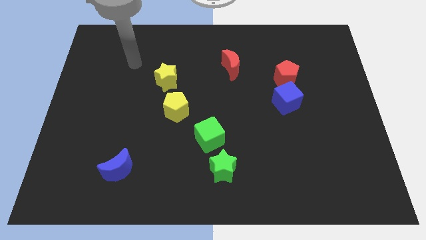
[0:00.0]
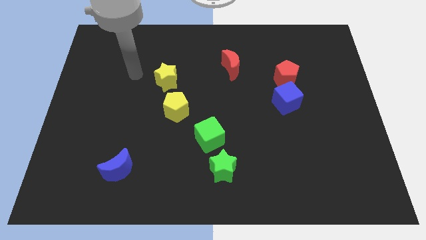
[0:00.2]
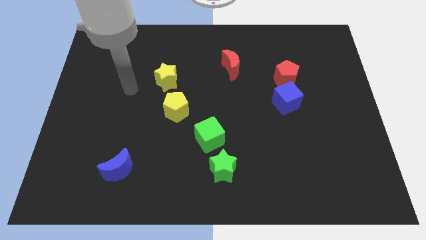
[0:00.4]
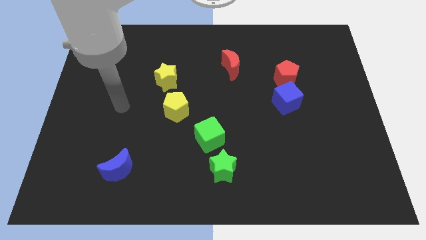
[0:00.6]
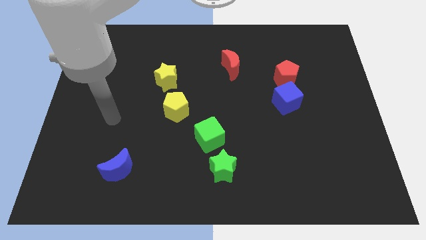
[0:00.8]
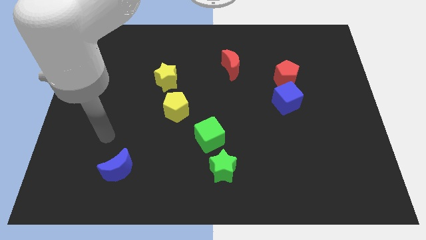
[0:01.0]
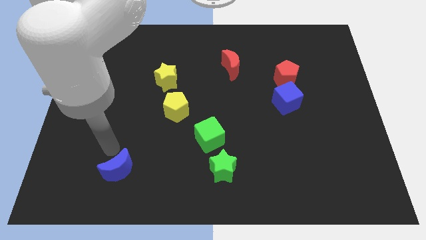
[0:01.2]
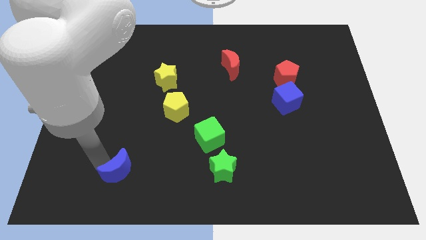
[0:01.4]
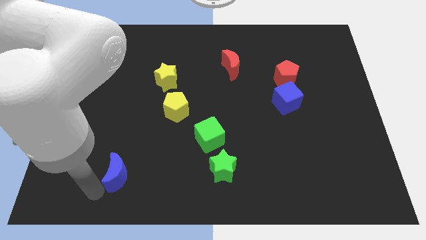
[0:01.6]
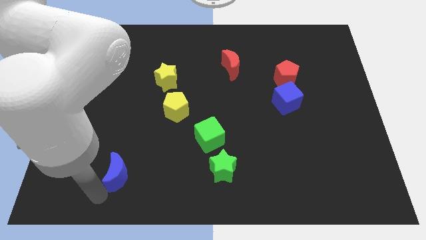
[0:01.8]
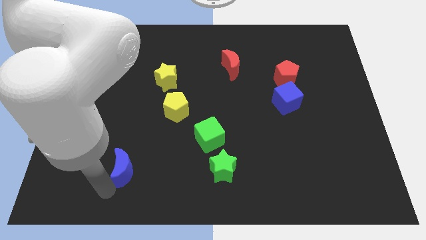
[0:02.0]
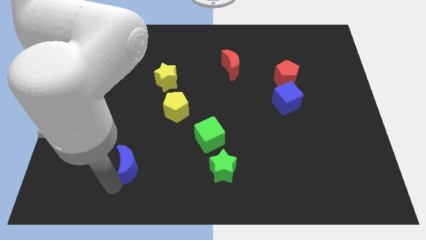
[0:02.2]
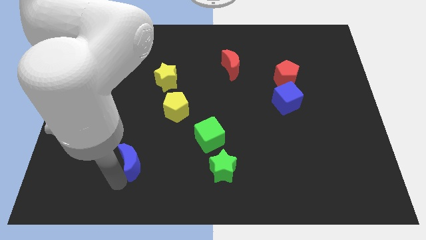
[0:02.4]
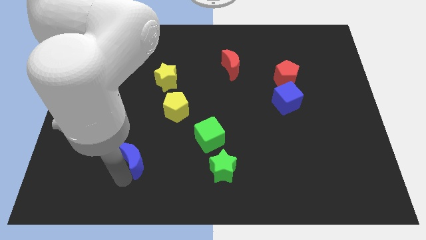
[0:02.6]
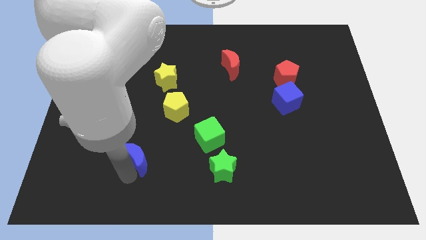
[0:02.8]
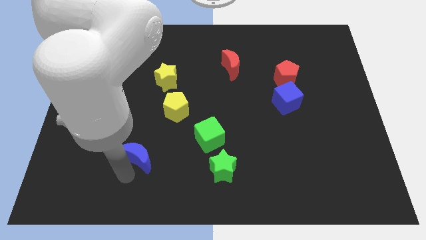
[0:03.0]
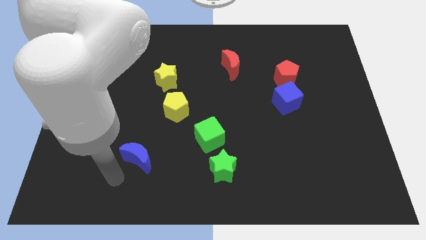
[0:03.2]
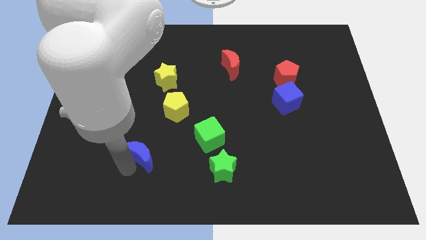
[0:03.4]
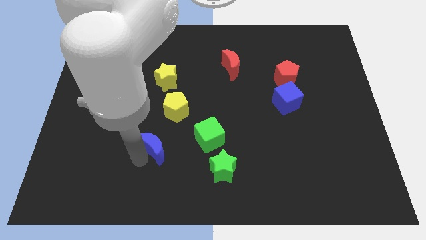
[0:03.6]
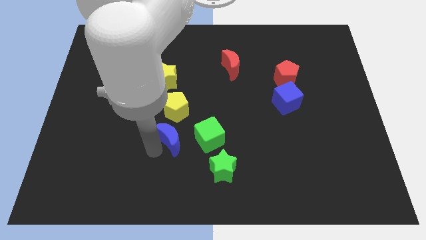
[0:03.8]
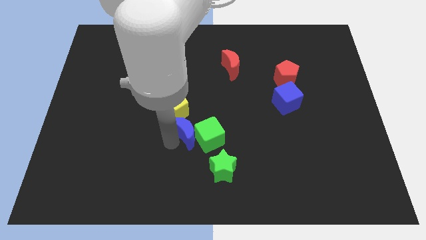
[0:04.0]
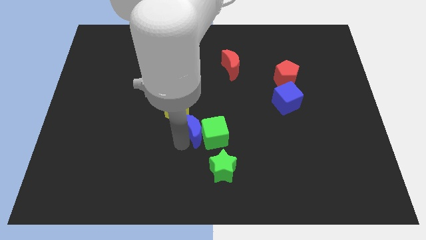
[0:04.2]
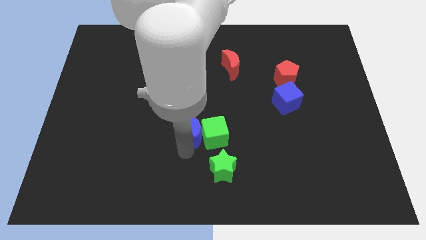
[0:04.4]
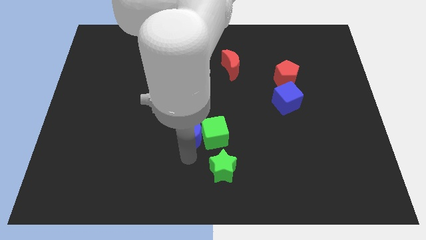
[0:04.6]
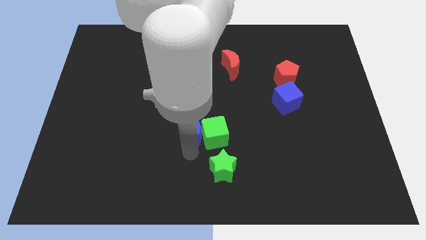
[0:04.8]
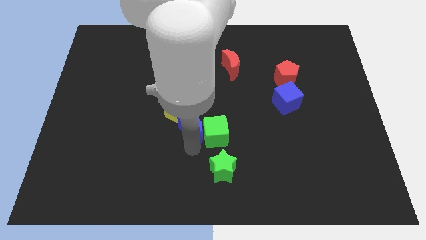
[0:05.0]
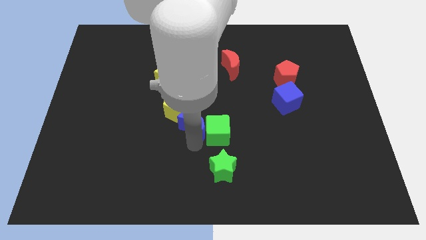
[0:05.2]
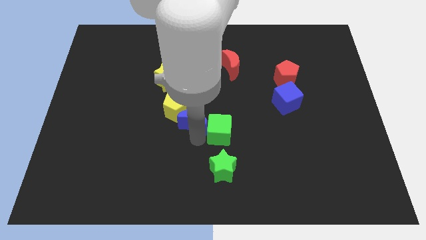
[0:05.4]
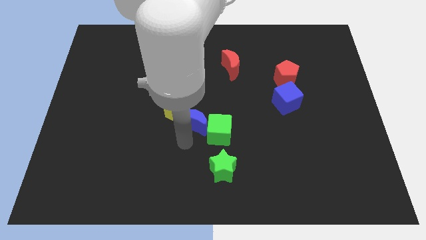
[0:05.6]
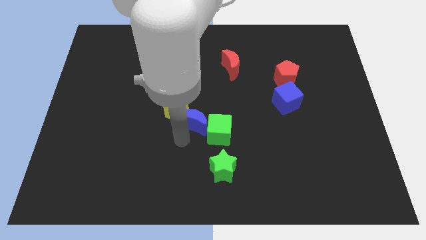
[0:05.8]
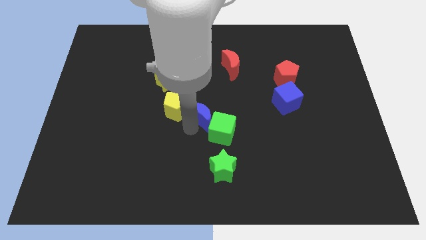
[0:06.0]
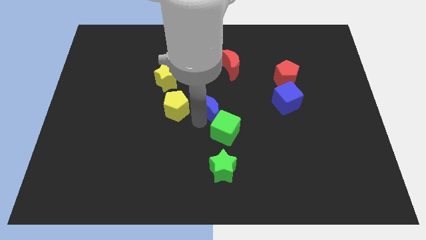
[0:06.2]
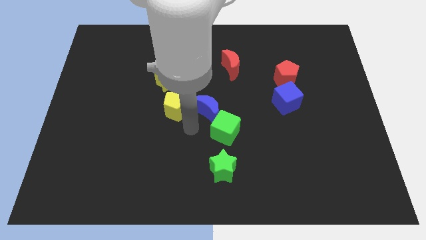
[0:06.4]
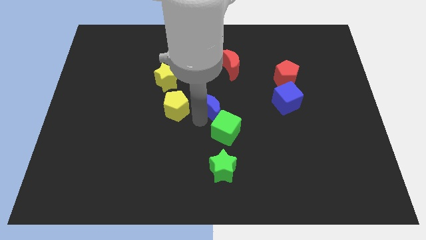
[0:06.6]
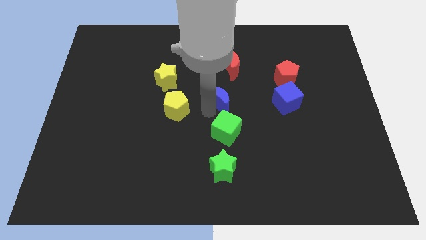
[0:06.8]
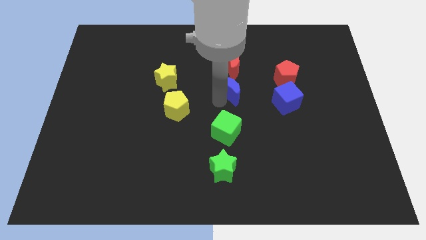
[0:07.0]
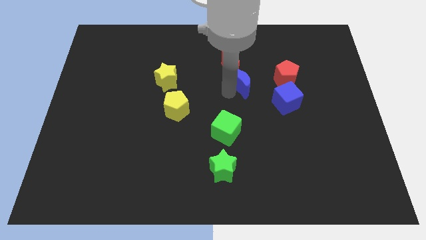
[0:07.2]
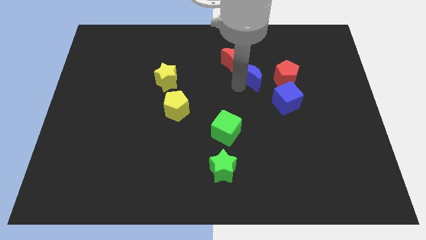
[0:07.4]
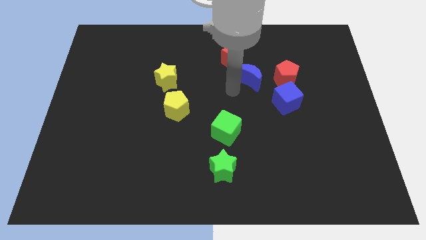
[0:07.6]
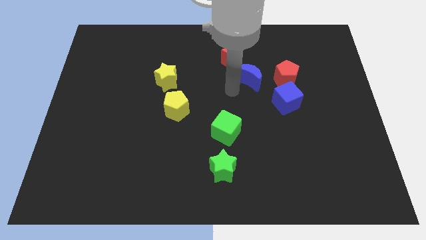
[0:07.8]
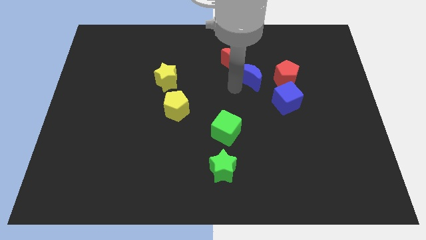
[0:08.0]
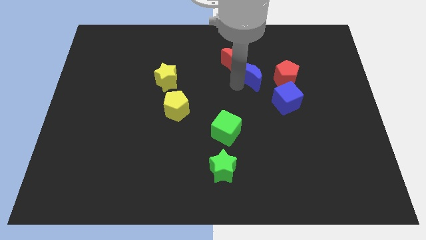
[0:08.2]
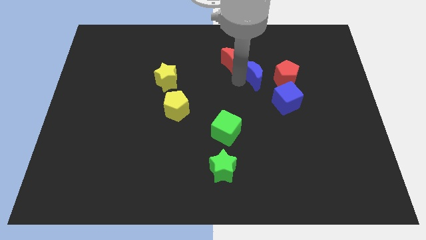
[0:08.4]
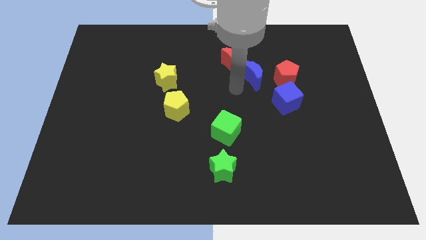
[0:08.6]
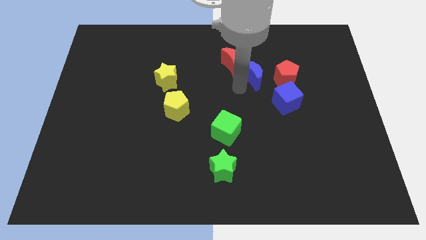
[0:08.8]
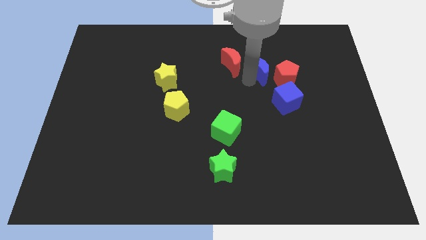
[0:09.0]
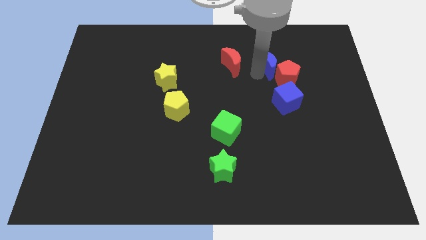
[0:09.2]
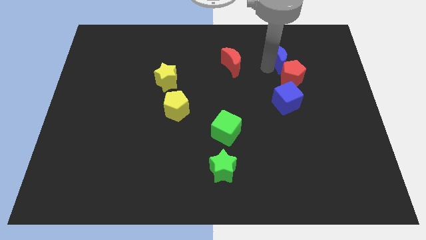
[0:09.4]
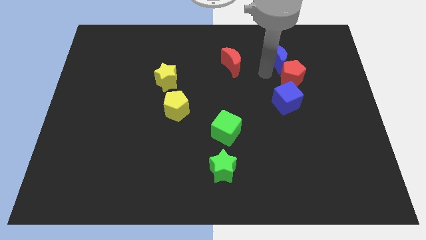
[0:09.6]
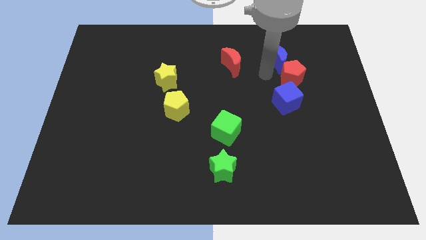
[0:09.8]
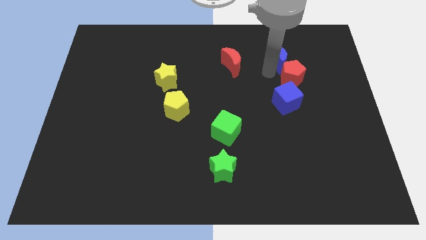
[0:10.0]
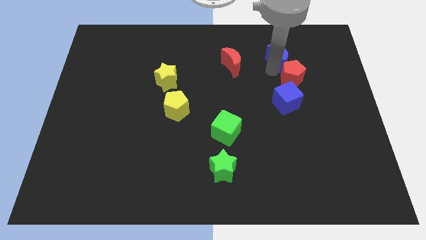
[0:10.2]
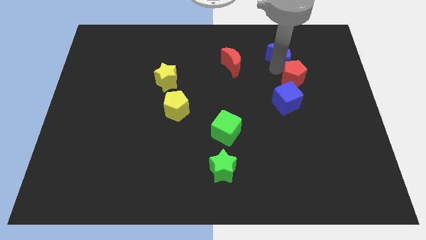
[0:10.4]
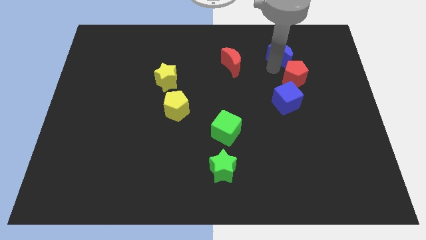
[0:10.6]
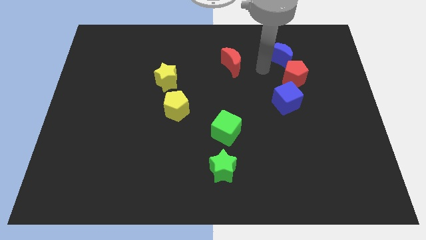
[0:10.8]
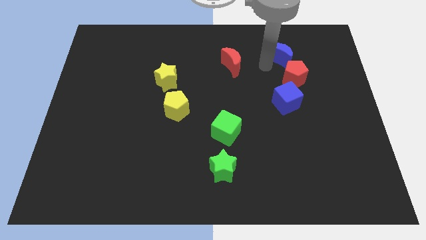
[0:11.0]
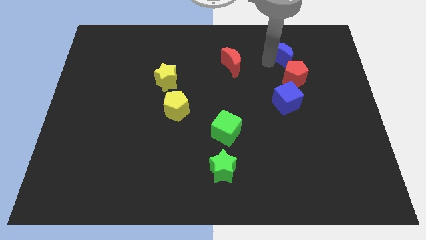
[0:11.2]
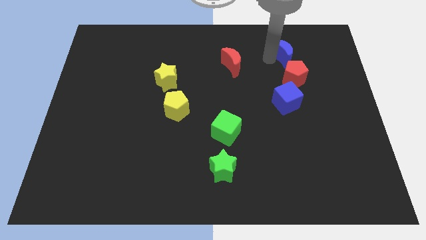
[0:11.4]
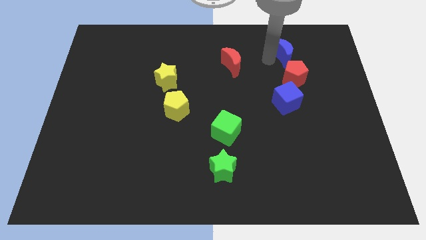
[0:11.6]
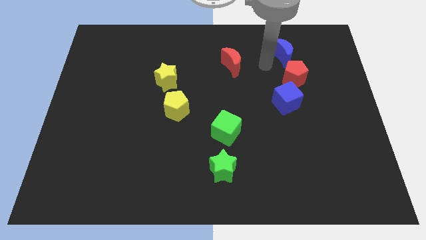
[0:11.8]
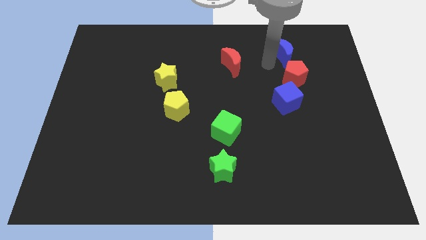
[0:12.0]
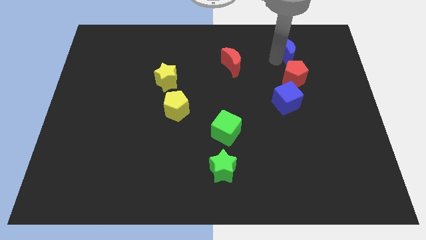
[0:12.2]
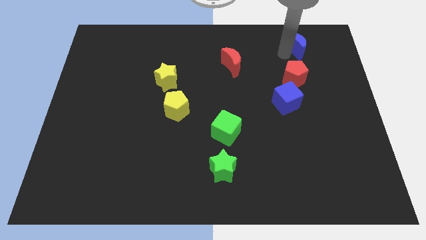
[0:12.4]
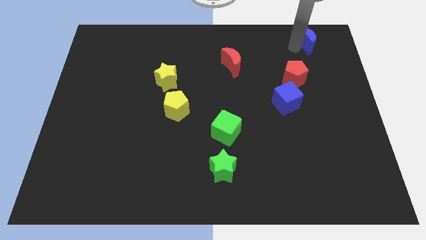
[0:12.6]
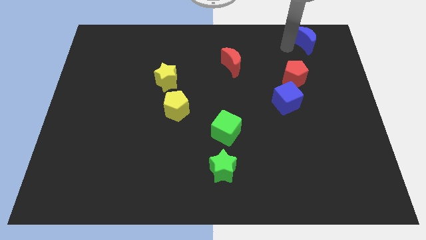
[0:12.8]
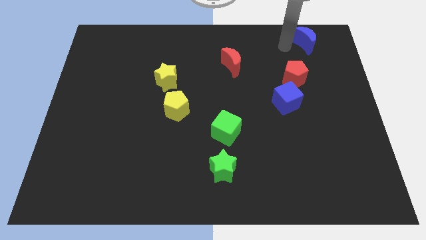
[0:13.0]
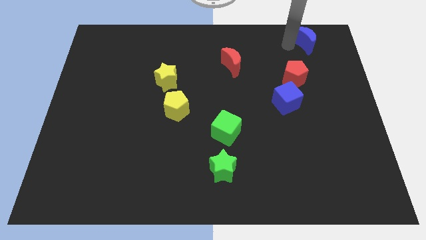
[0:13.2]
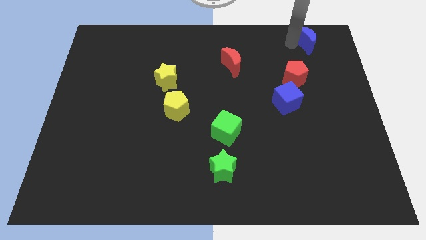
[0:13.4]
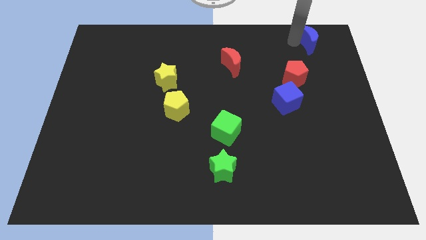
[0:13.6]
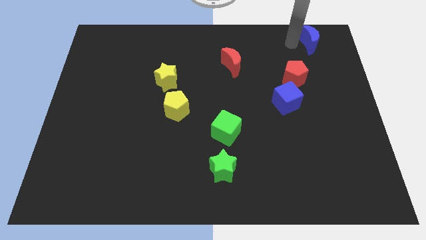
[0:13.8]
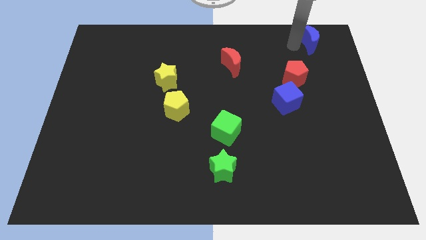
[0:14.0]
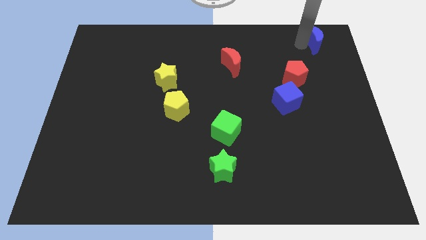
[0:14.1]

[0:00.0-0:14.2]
slide the blue moon to the top right of the board
